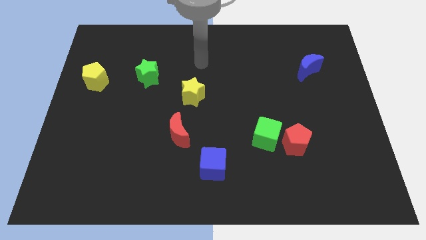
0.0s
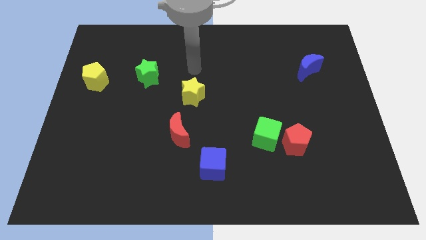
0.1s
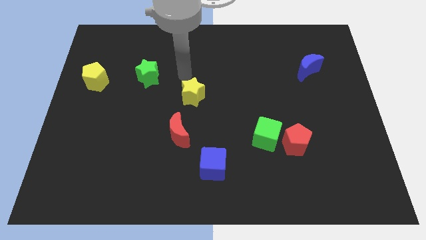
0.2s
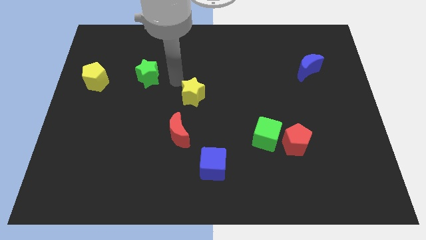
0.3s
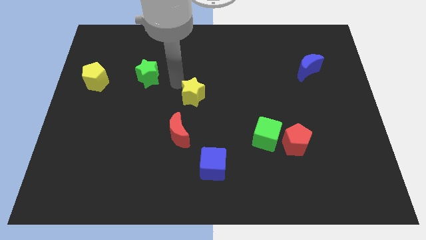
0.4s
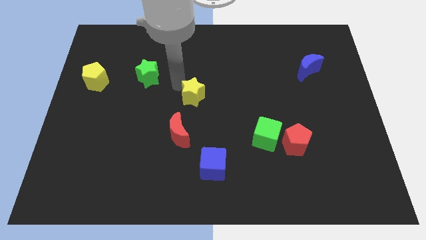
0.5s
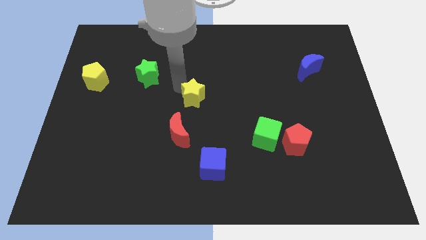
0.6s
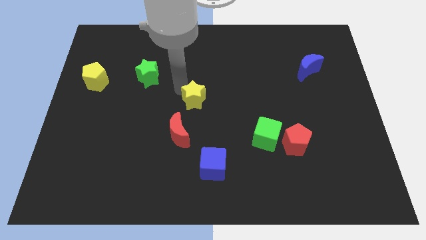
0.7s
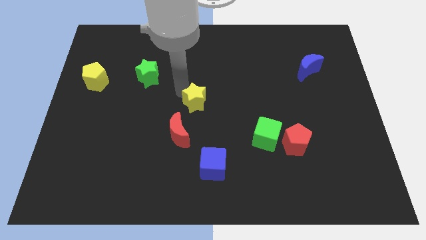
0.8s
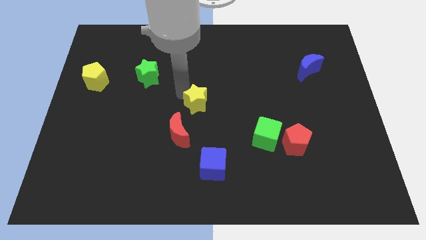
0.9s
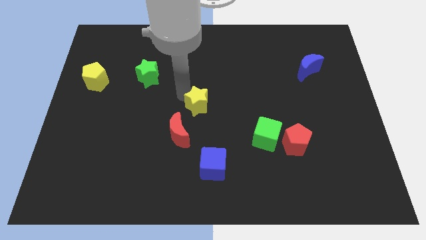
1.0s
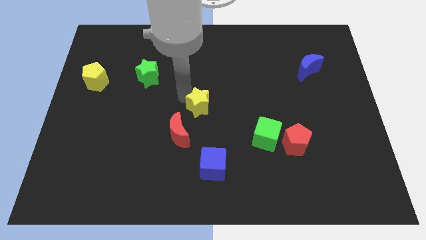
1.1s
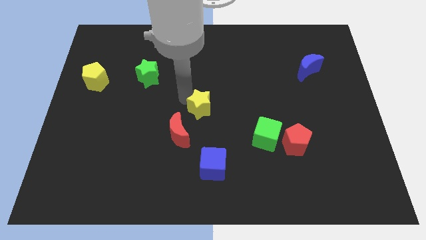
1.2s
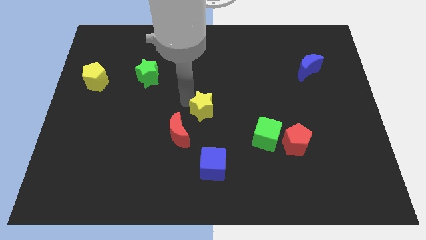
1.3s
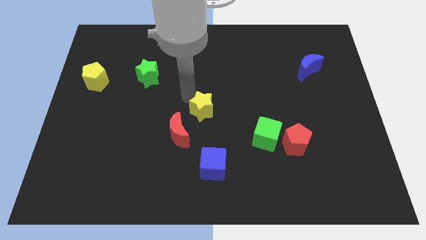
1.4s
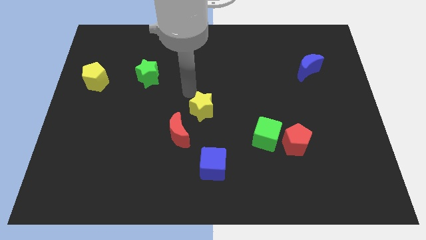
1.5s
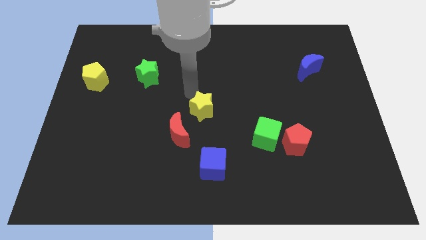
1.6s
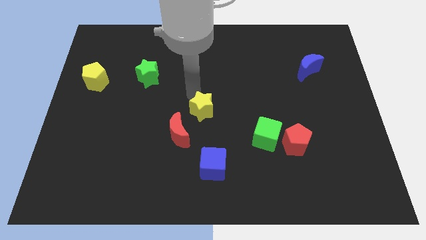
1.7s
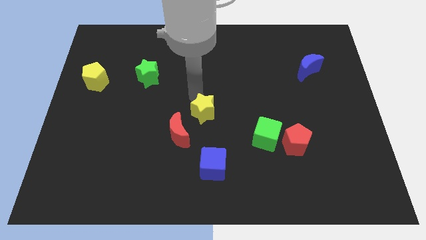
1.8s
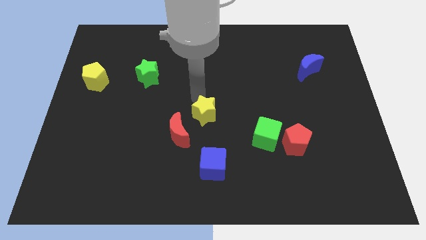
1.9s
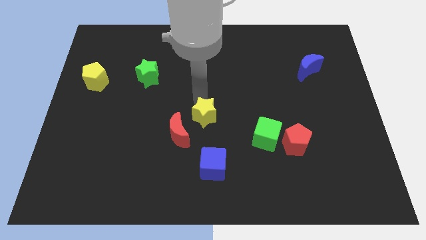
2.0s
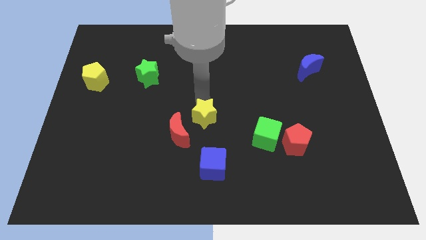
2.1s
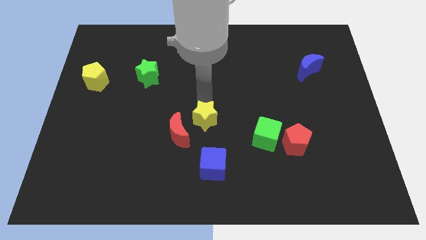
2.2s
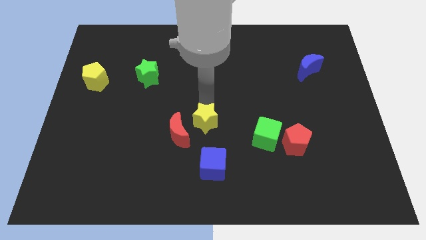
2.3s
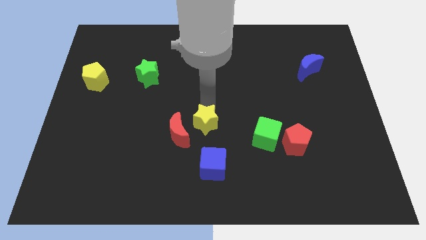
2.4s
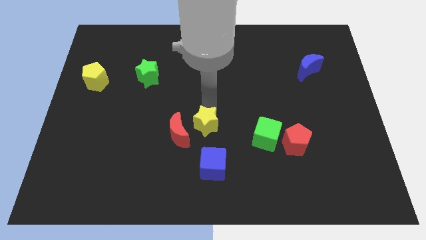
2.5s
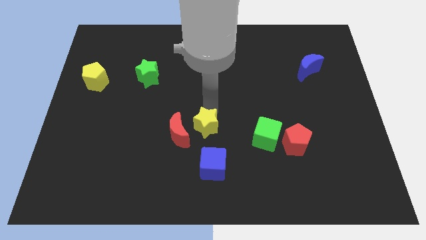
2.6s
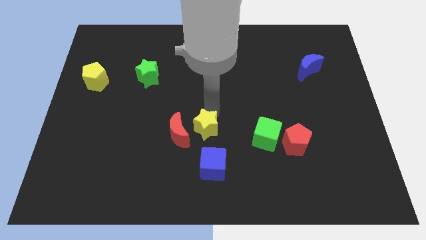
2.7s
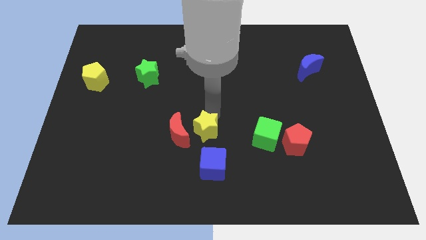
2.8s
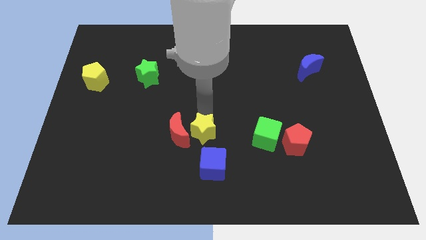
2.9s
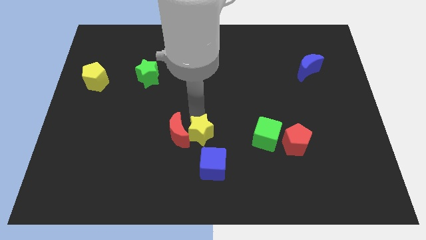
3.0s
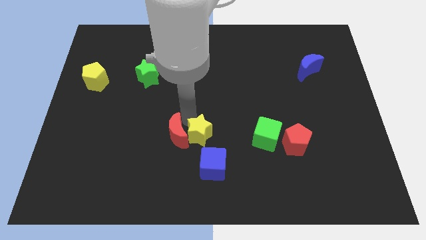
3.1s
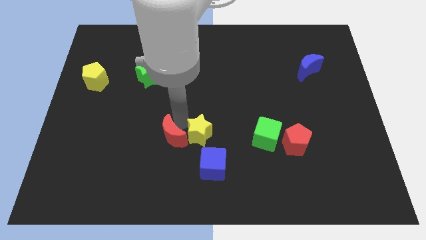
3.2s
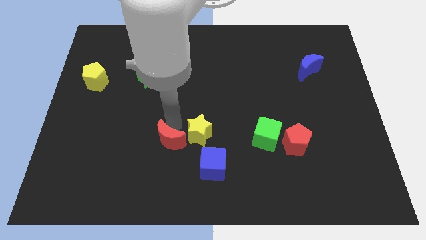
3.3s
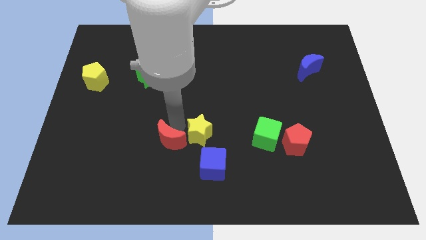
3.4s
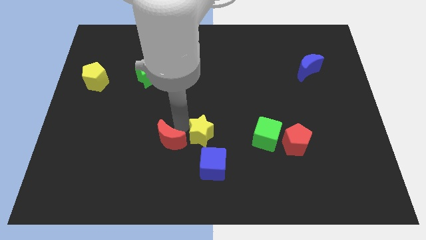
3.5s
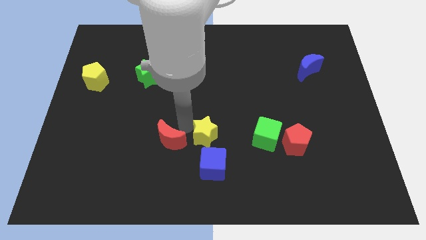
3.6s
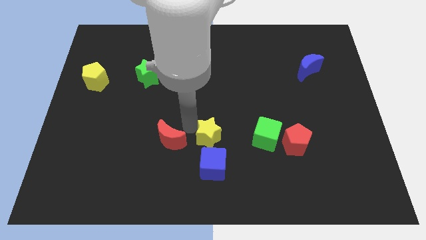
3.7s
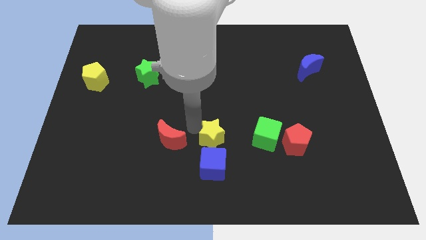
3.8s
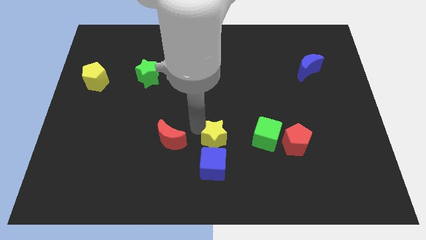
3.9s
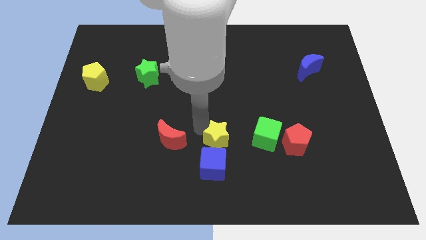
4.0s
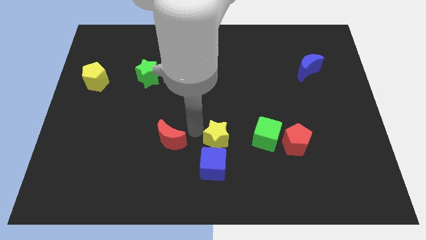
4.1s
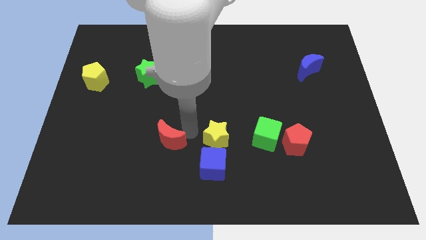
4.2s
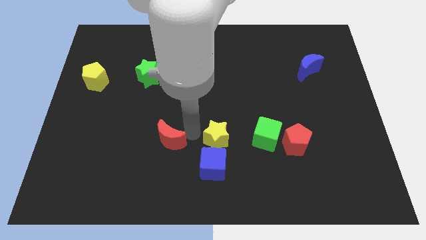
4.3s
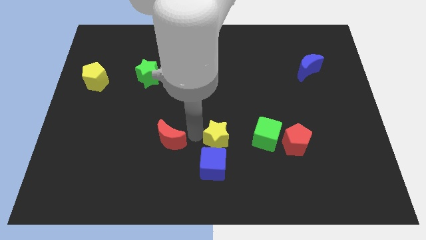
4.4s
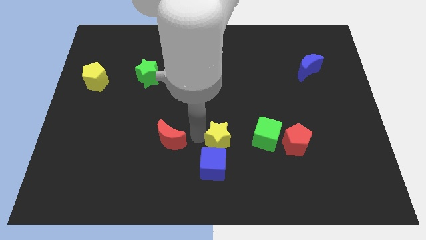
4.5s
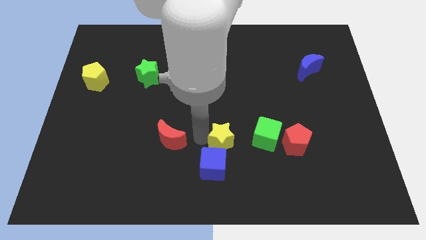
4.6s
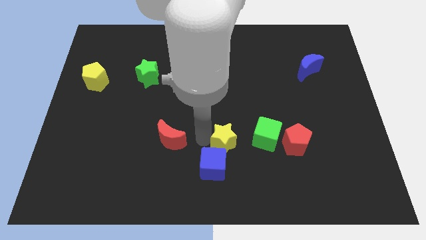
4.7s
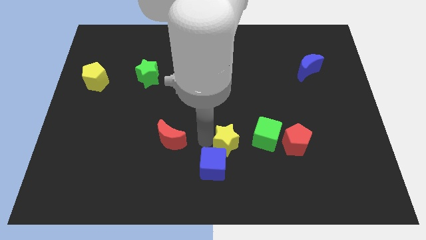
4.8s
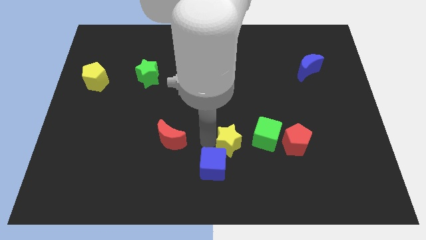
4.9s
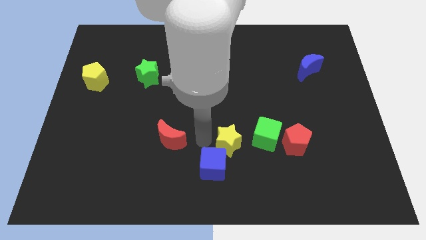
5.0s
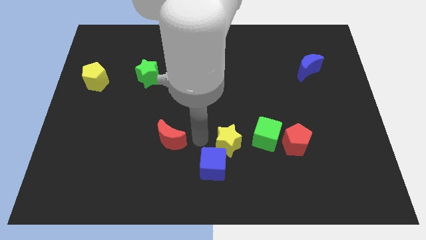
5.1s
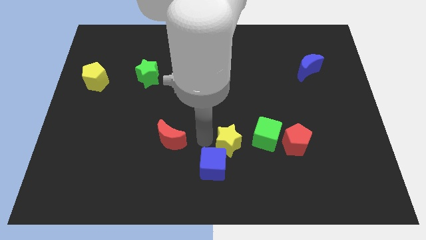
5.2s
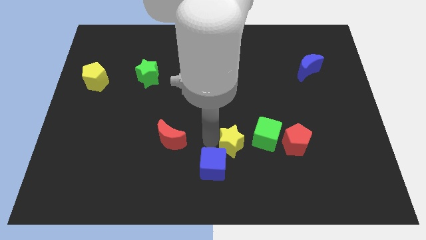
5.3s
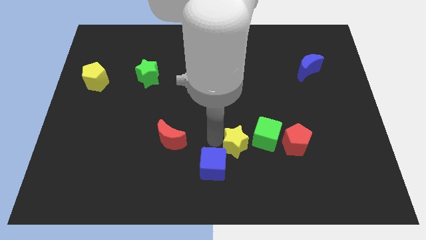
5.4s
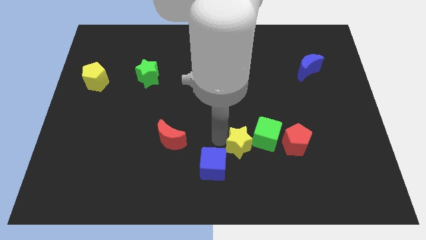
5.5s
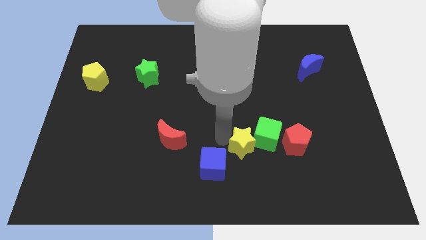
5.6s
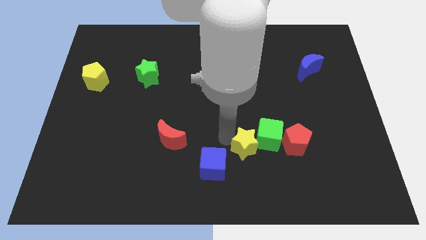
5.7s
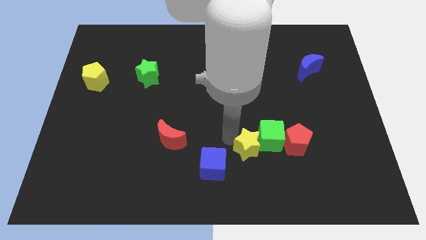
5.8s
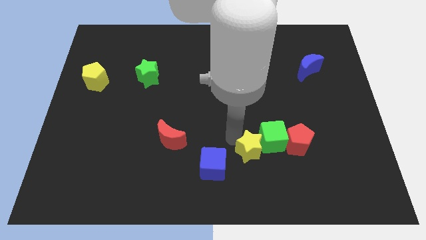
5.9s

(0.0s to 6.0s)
move the yellow star down and to the right diagonally

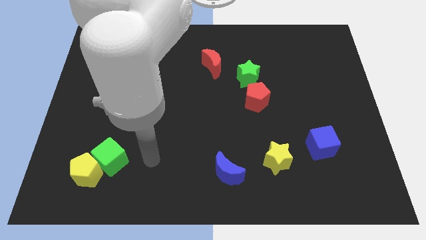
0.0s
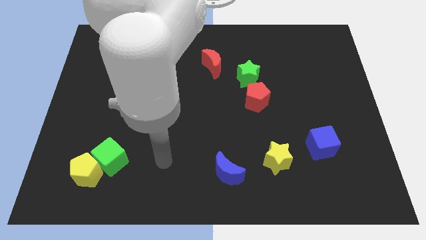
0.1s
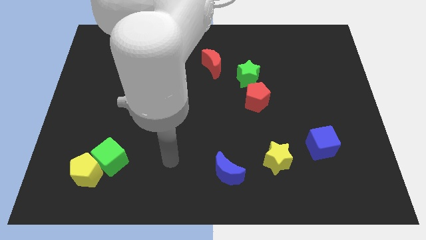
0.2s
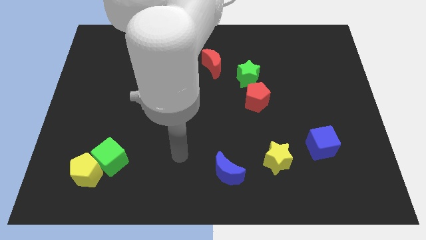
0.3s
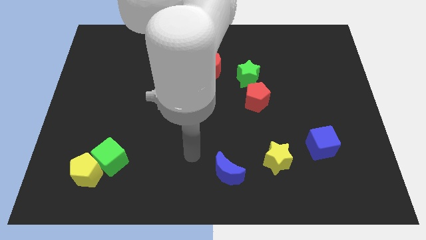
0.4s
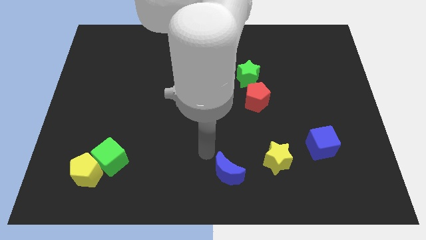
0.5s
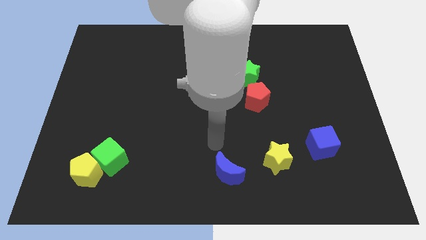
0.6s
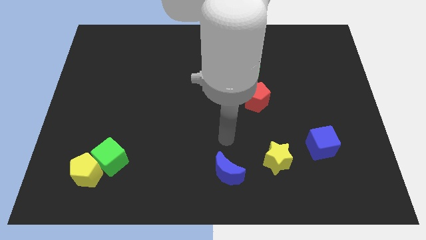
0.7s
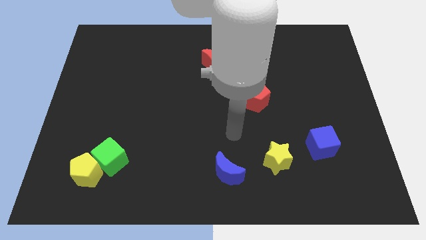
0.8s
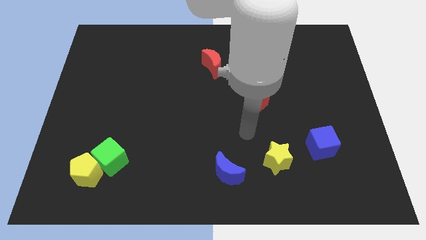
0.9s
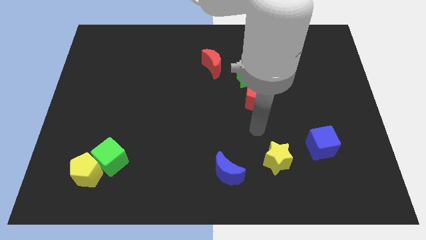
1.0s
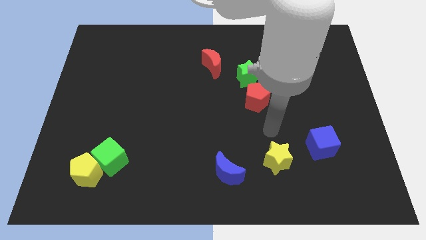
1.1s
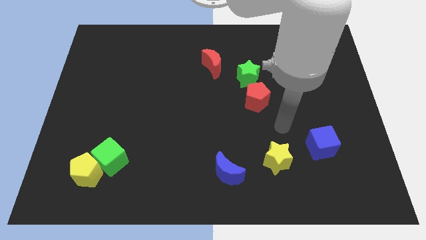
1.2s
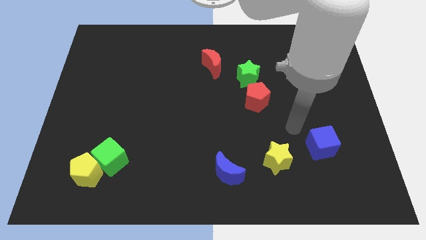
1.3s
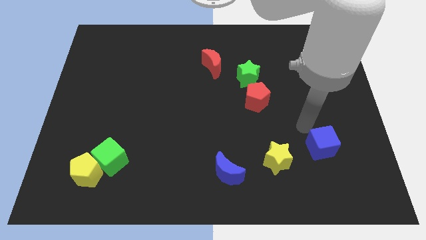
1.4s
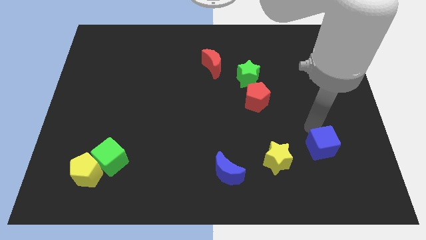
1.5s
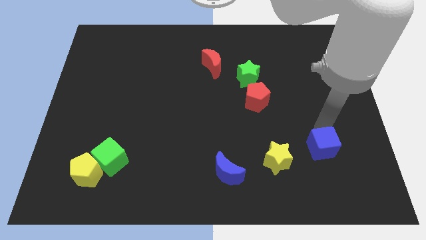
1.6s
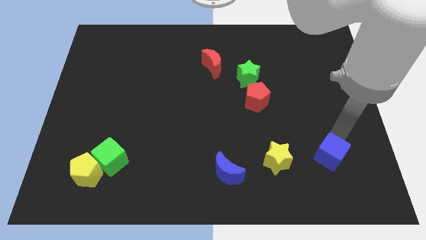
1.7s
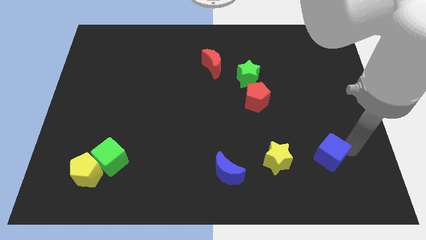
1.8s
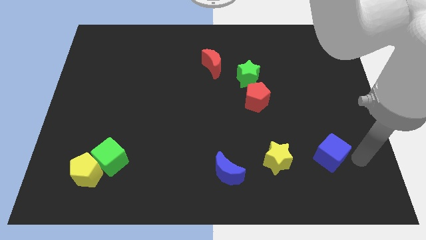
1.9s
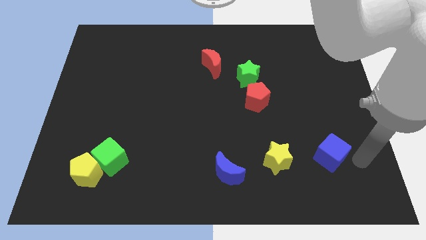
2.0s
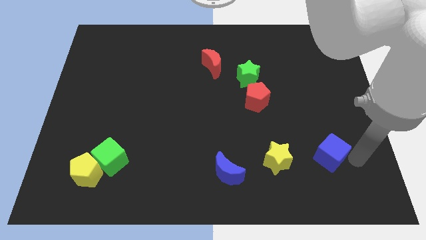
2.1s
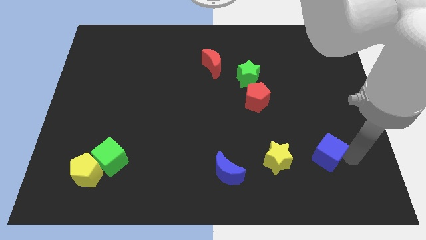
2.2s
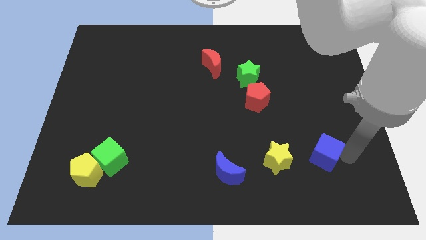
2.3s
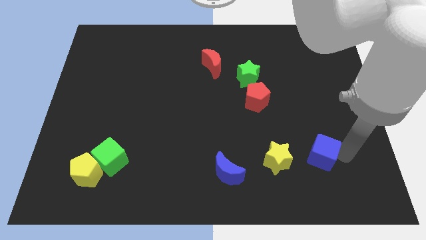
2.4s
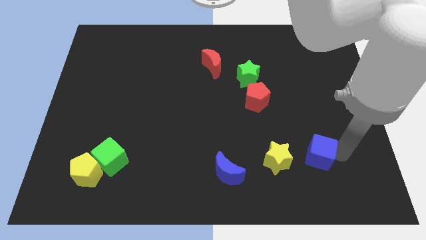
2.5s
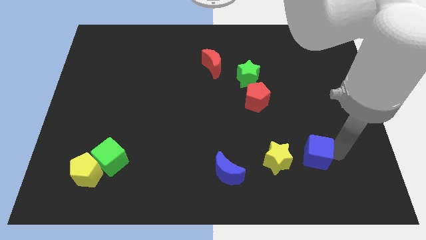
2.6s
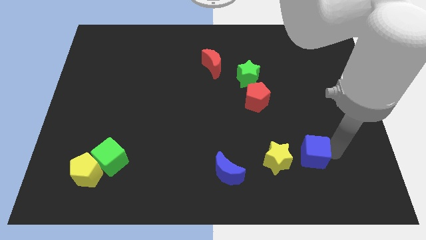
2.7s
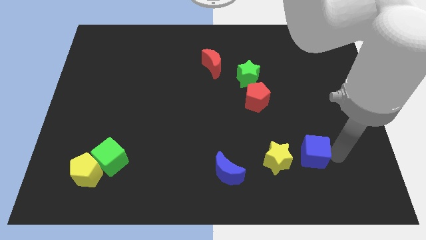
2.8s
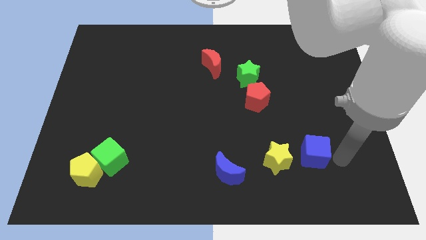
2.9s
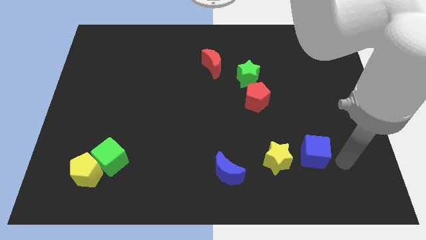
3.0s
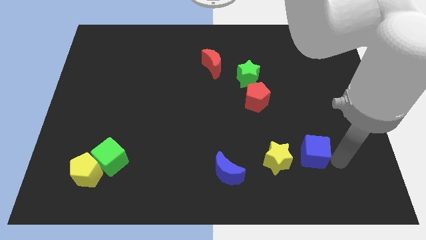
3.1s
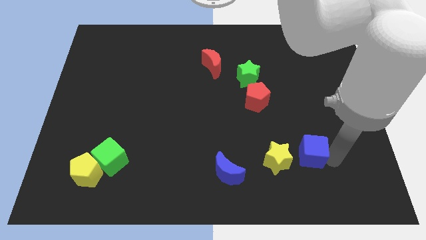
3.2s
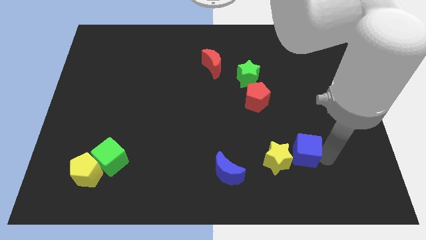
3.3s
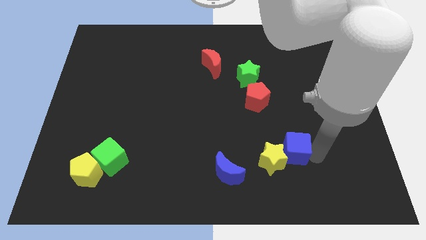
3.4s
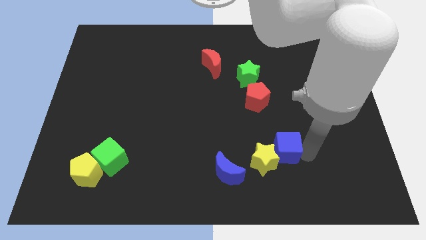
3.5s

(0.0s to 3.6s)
slide the blue cube to the left a little bit
